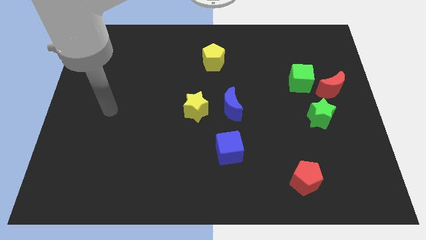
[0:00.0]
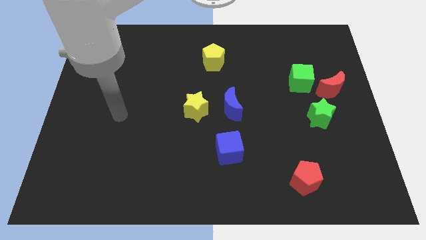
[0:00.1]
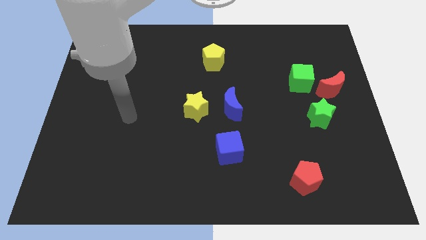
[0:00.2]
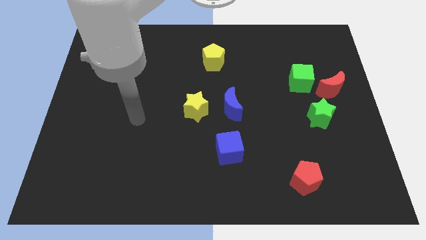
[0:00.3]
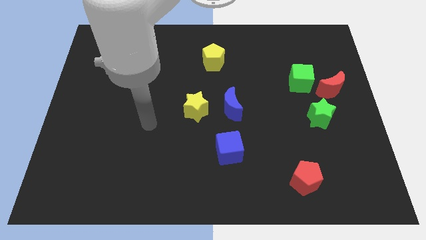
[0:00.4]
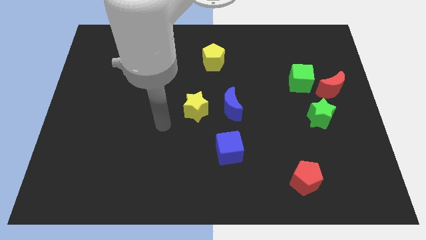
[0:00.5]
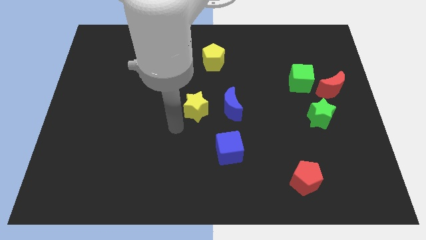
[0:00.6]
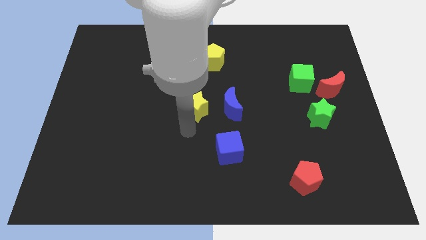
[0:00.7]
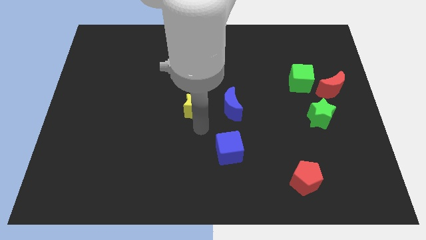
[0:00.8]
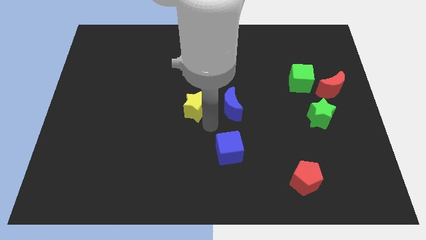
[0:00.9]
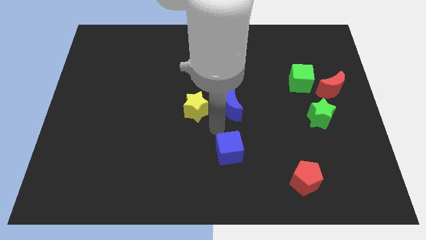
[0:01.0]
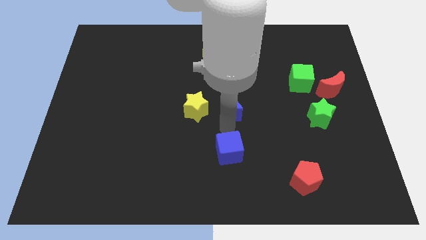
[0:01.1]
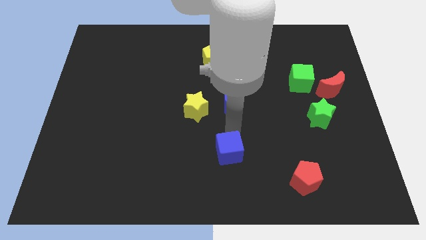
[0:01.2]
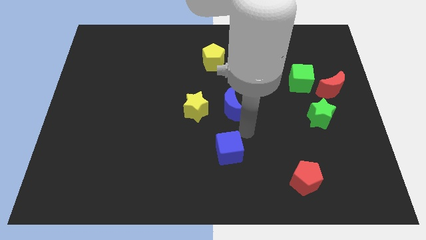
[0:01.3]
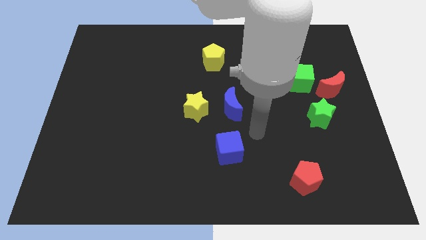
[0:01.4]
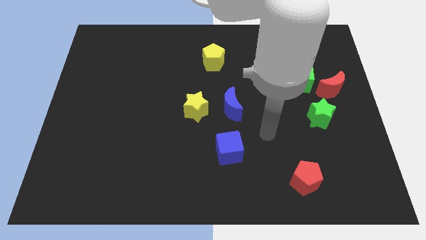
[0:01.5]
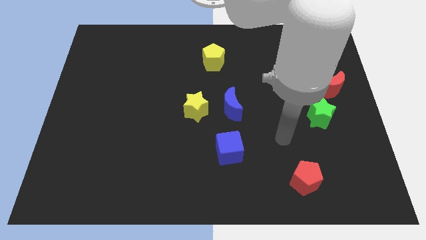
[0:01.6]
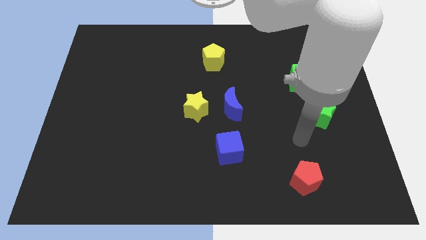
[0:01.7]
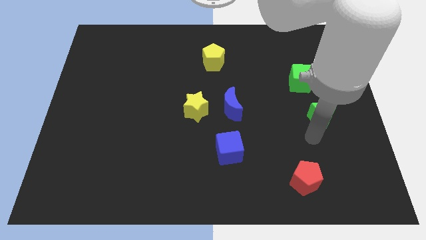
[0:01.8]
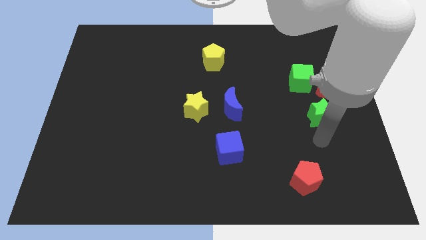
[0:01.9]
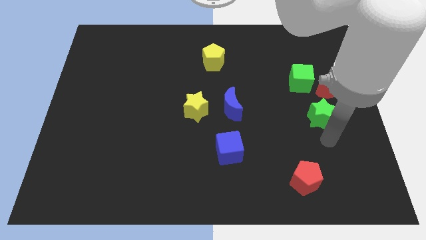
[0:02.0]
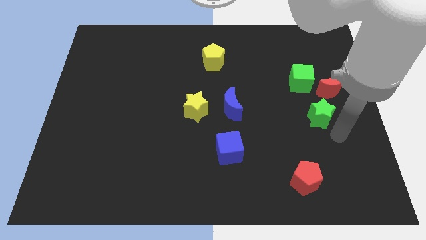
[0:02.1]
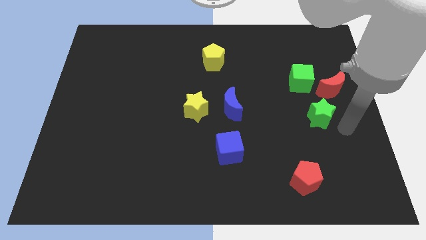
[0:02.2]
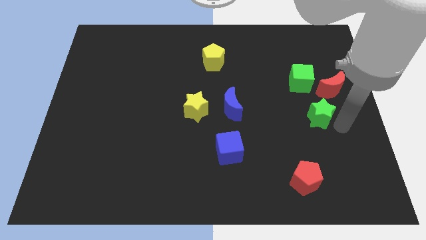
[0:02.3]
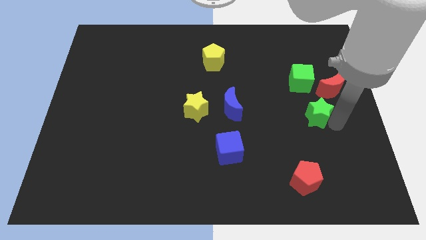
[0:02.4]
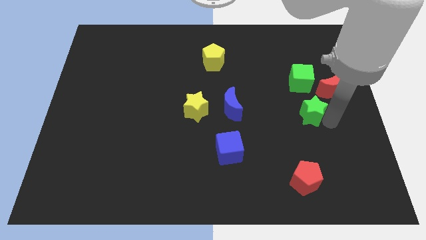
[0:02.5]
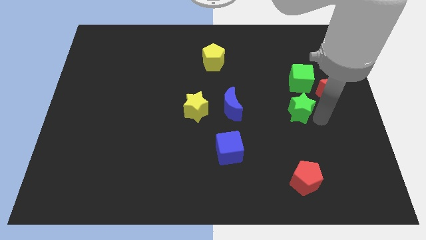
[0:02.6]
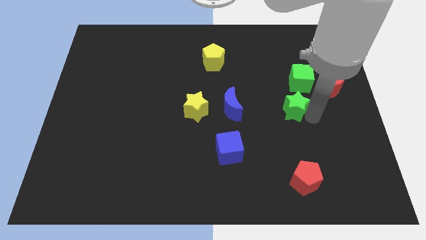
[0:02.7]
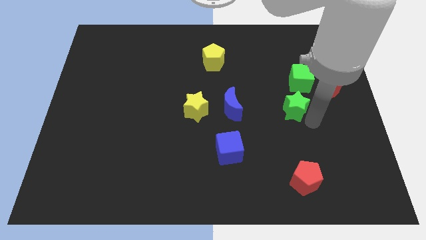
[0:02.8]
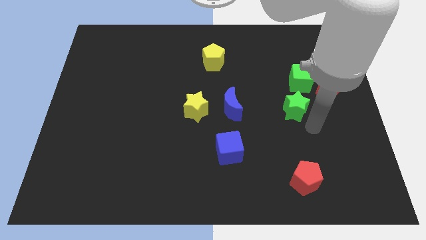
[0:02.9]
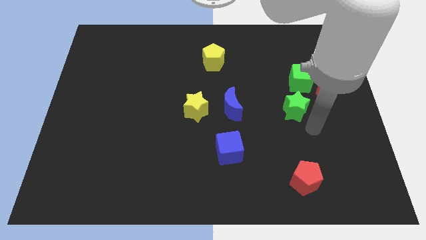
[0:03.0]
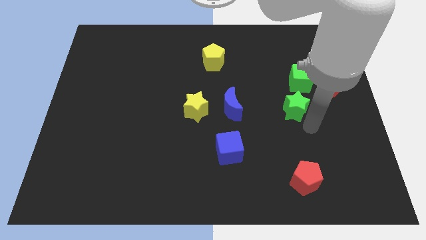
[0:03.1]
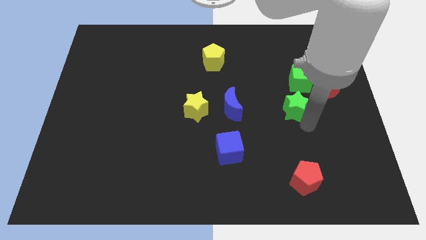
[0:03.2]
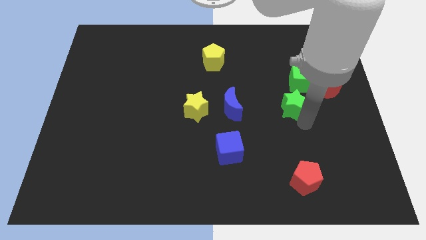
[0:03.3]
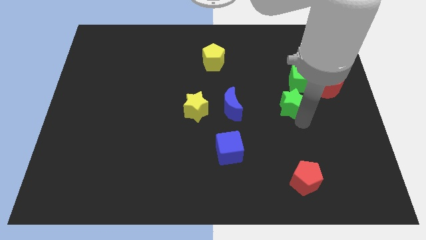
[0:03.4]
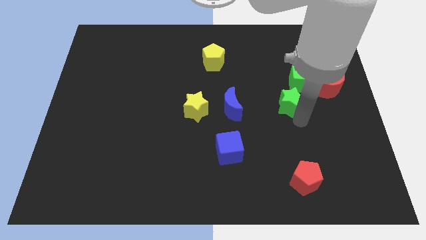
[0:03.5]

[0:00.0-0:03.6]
slide the green star up and to the left a little bit

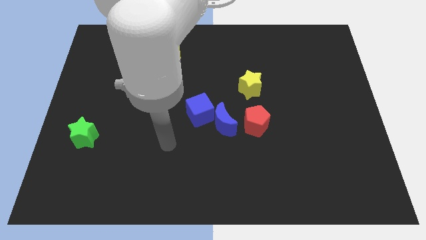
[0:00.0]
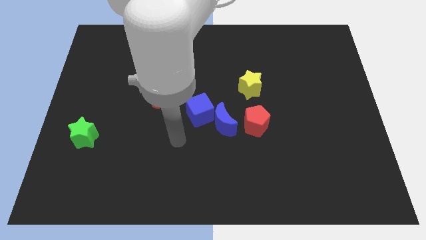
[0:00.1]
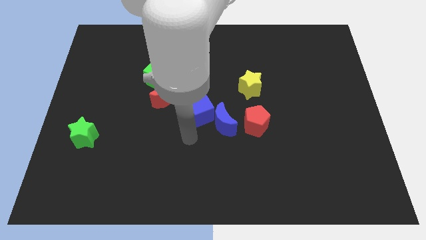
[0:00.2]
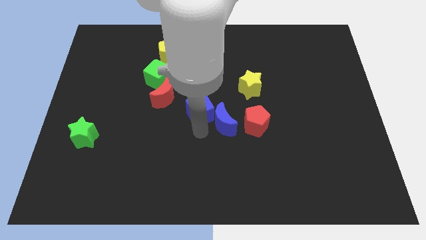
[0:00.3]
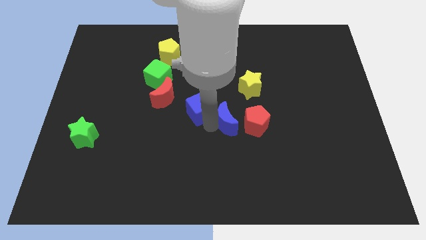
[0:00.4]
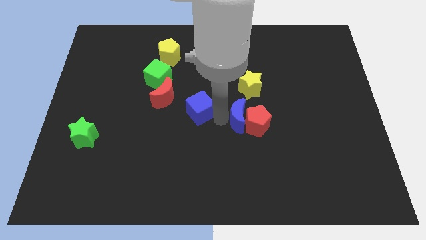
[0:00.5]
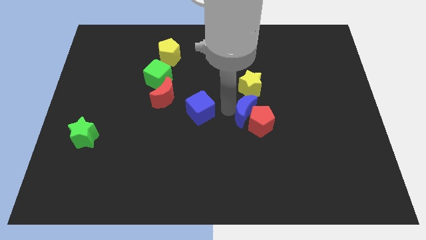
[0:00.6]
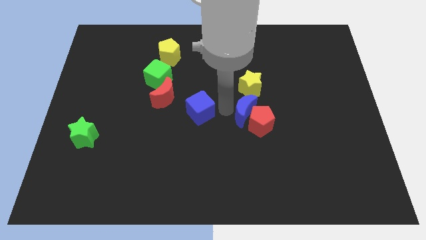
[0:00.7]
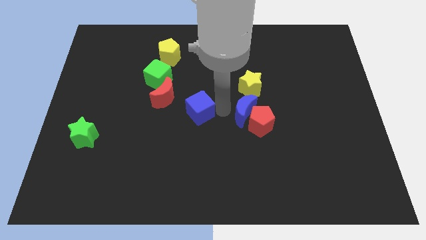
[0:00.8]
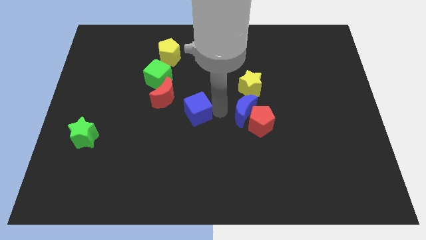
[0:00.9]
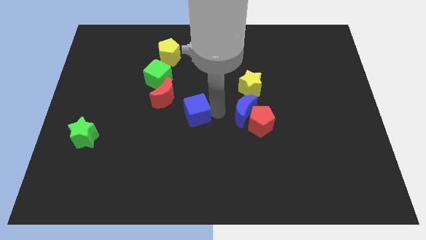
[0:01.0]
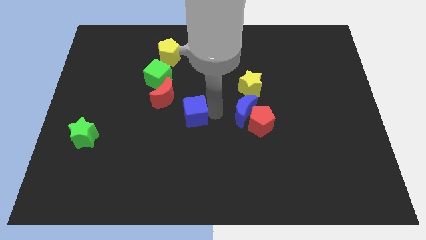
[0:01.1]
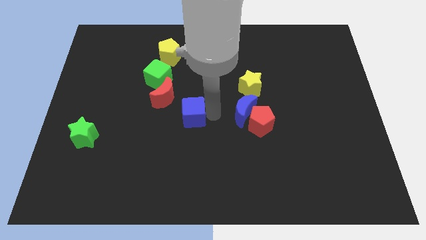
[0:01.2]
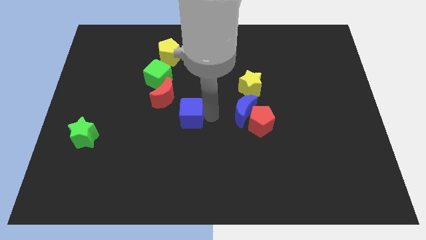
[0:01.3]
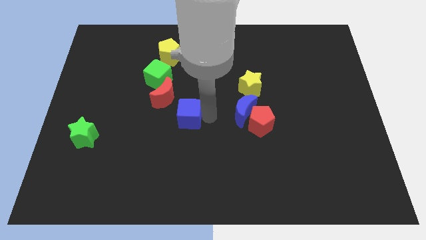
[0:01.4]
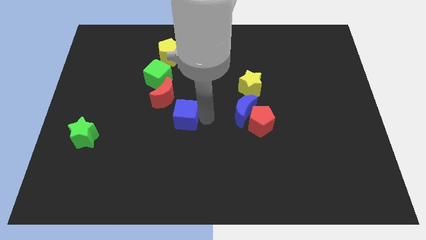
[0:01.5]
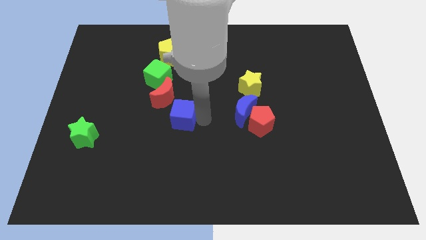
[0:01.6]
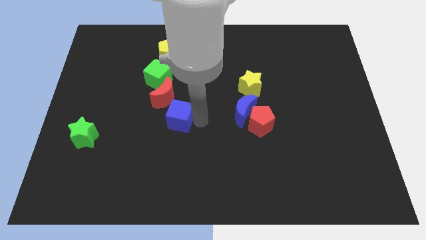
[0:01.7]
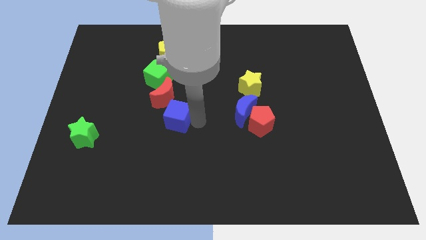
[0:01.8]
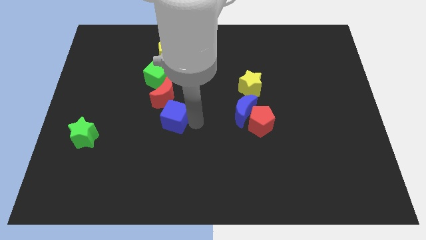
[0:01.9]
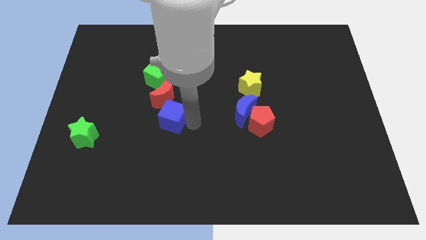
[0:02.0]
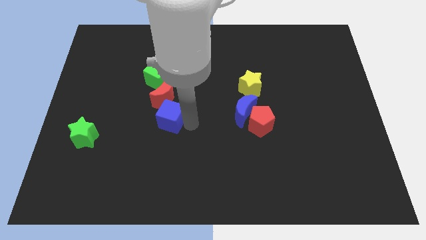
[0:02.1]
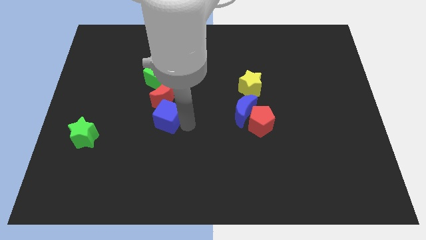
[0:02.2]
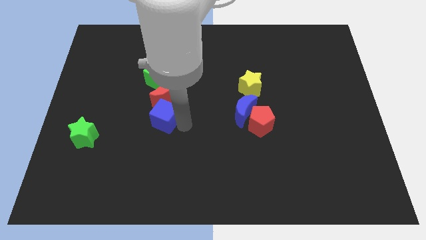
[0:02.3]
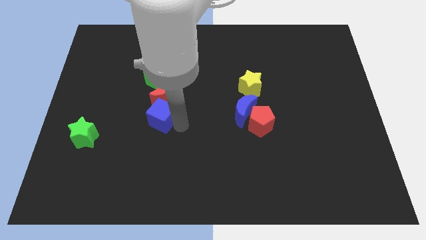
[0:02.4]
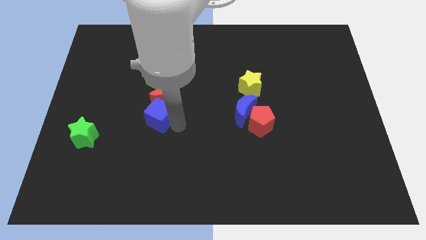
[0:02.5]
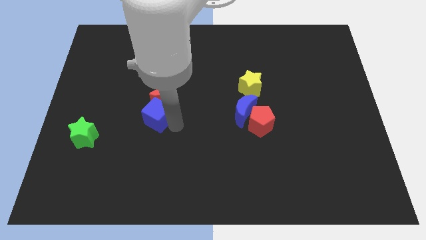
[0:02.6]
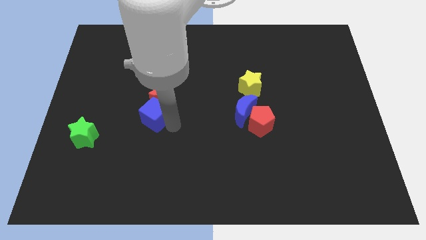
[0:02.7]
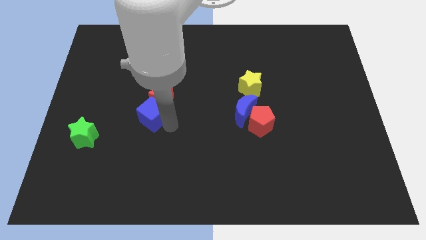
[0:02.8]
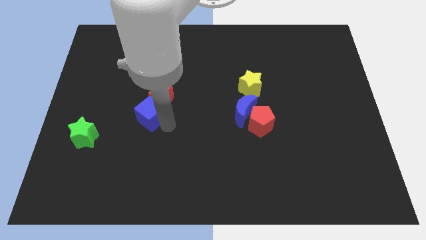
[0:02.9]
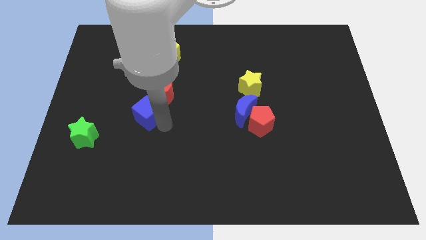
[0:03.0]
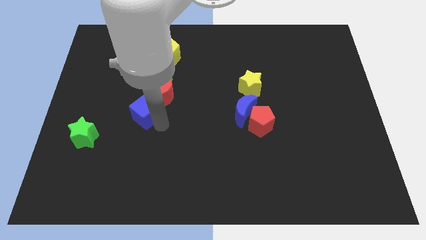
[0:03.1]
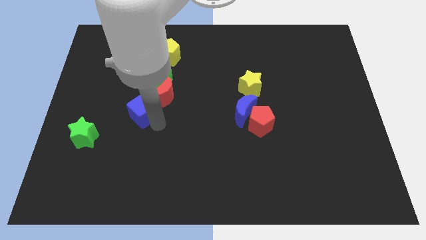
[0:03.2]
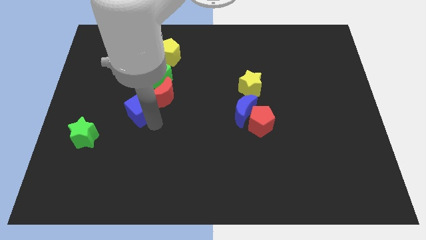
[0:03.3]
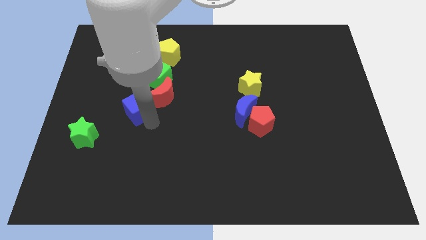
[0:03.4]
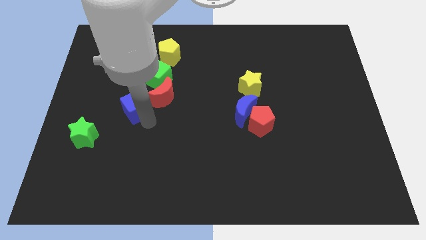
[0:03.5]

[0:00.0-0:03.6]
push the blue cube a bit diagonally upwards and to the left

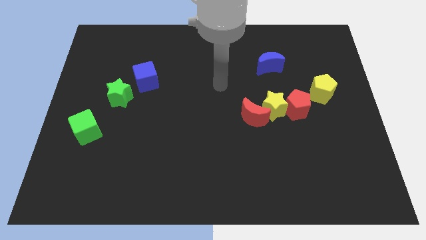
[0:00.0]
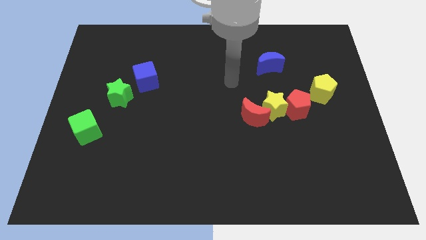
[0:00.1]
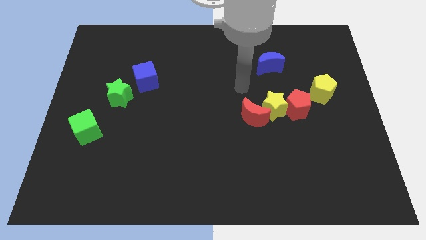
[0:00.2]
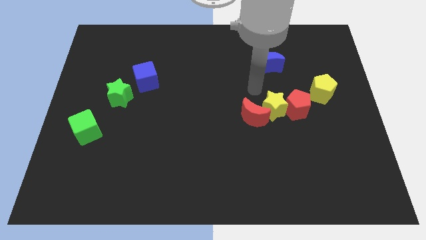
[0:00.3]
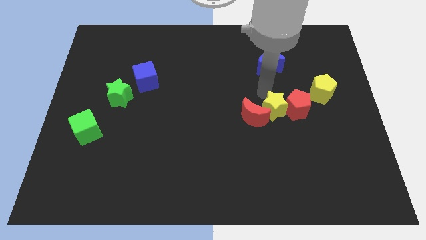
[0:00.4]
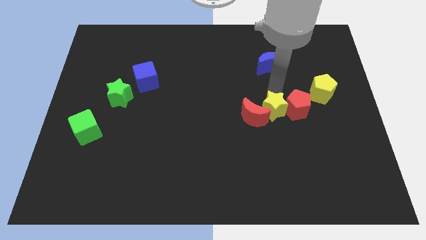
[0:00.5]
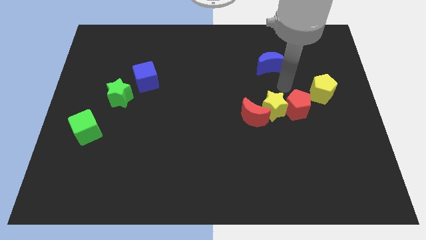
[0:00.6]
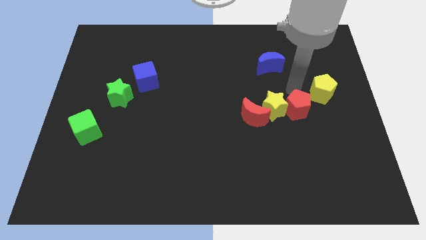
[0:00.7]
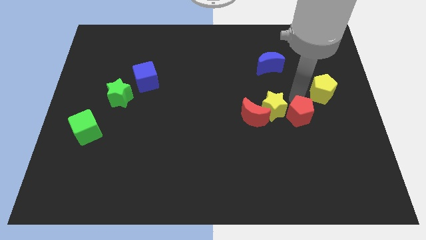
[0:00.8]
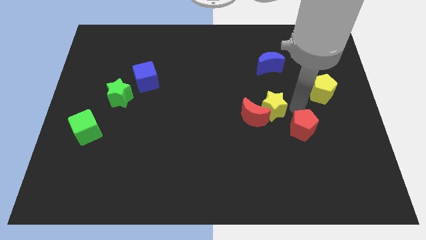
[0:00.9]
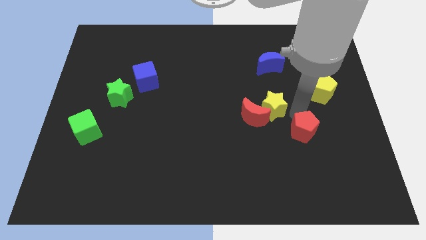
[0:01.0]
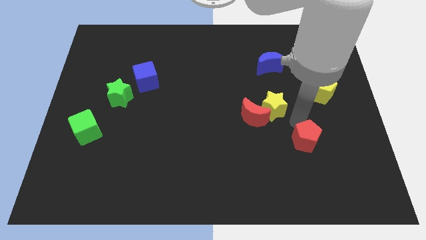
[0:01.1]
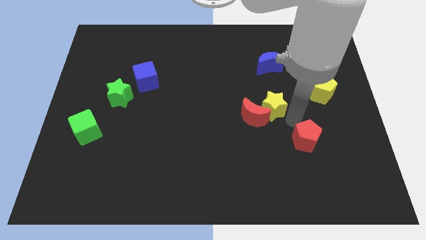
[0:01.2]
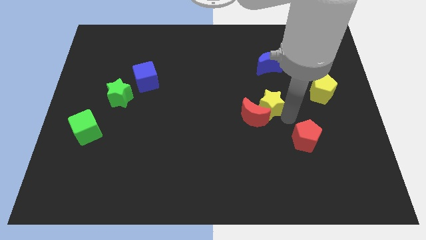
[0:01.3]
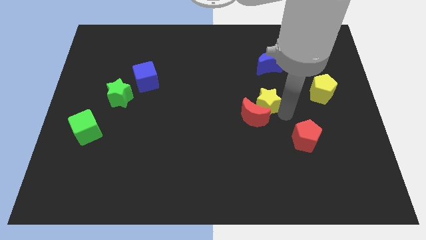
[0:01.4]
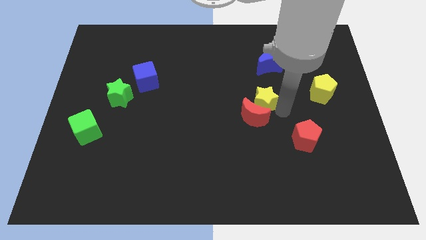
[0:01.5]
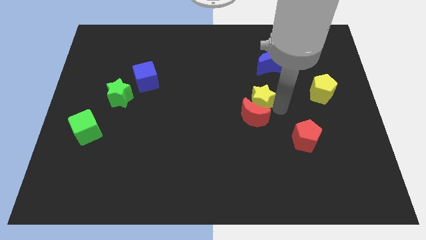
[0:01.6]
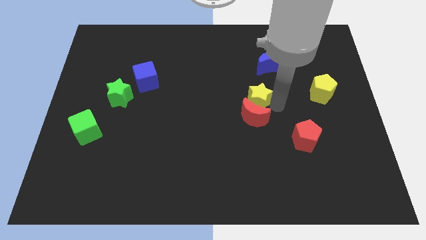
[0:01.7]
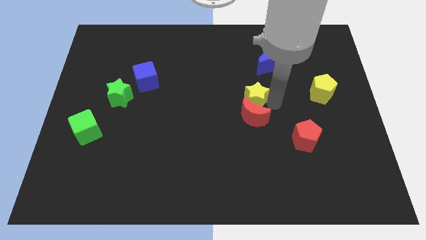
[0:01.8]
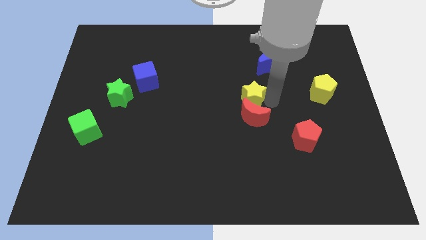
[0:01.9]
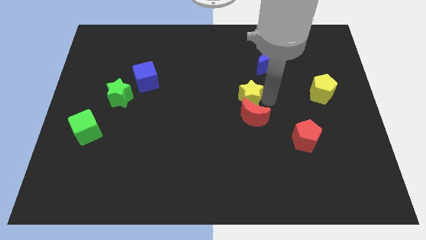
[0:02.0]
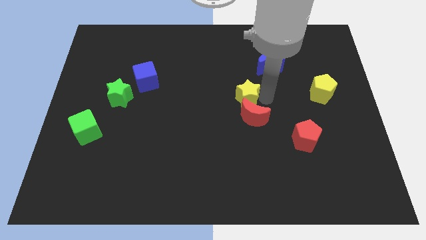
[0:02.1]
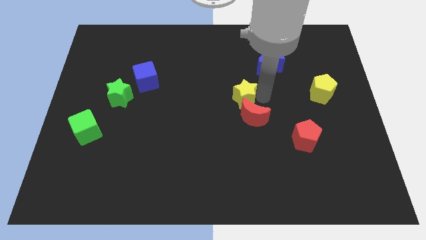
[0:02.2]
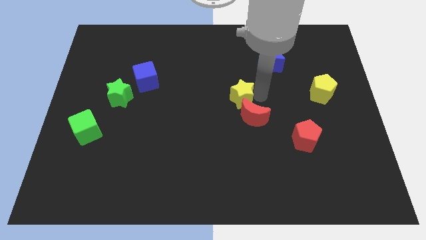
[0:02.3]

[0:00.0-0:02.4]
slightly slide the yellow star to the left
